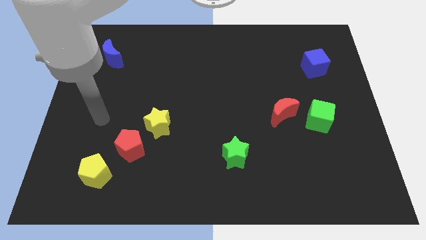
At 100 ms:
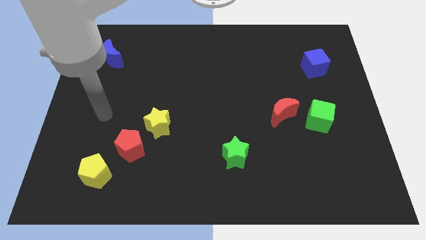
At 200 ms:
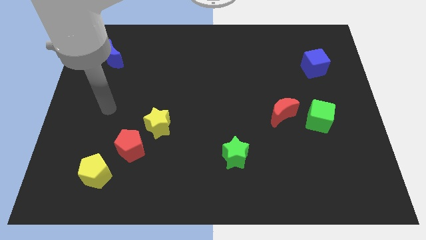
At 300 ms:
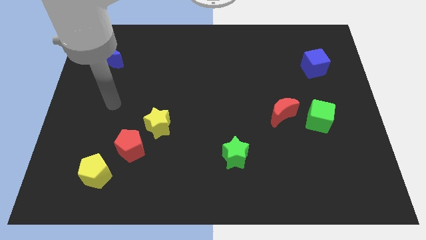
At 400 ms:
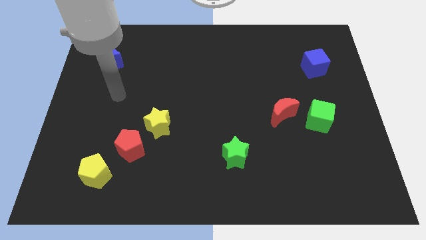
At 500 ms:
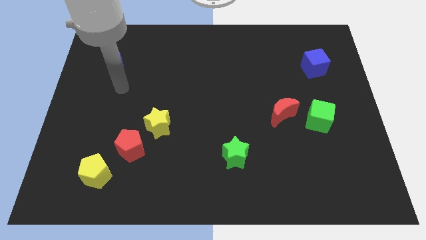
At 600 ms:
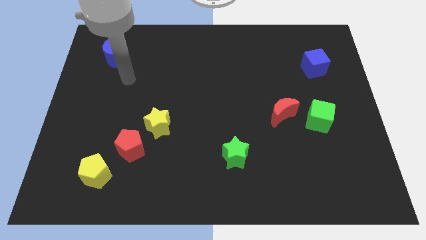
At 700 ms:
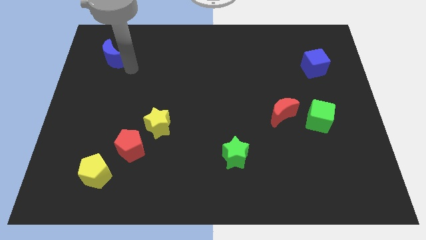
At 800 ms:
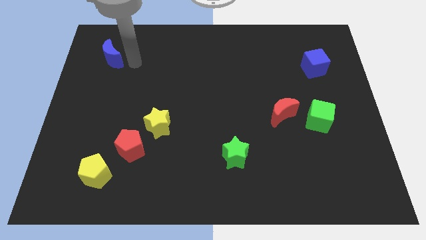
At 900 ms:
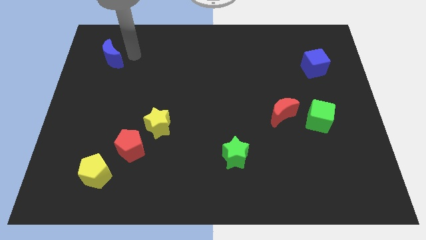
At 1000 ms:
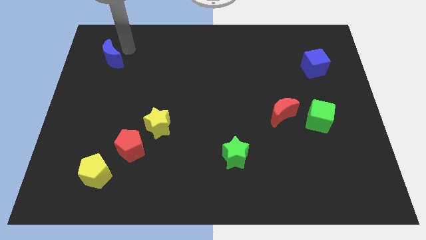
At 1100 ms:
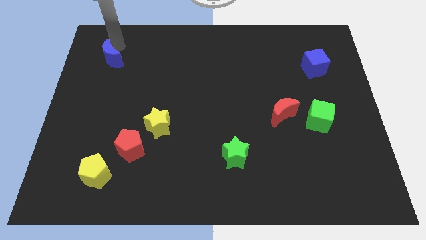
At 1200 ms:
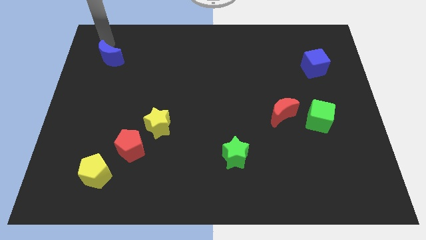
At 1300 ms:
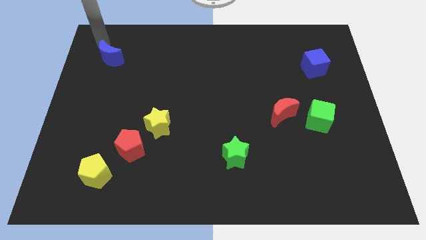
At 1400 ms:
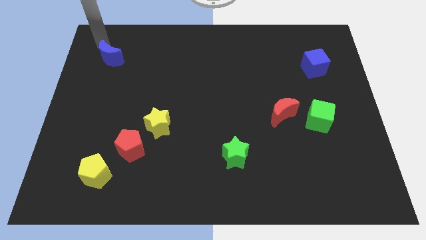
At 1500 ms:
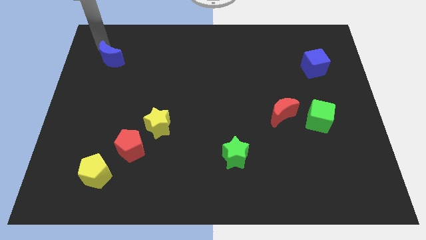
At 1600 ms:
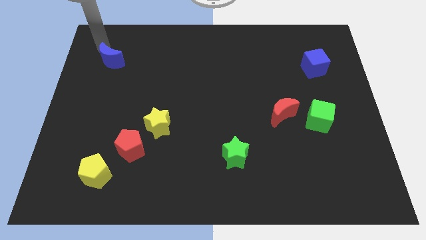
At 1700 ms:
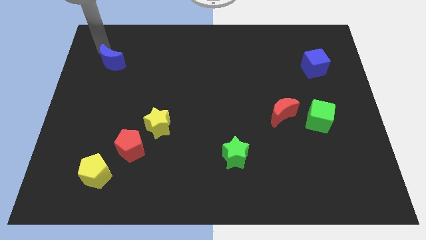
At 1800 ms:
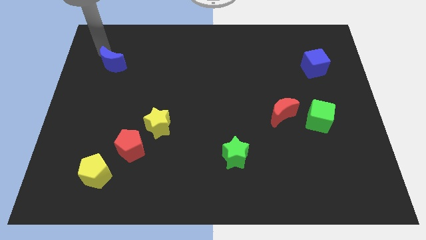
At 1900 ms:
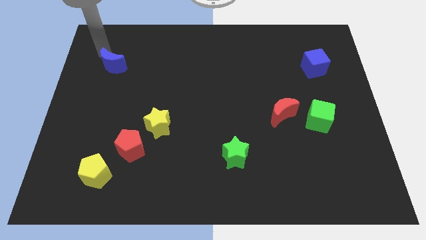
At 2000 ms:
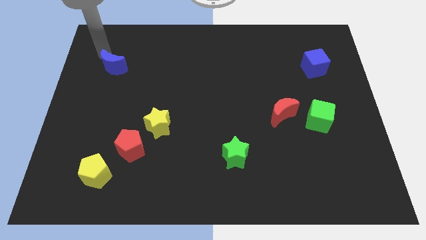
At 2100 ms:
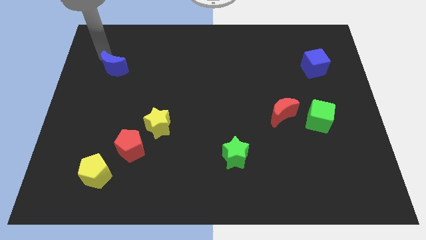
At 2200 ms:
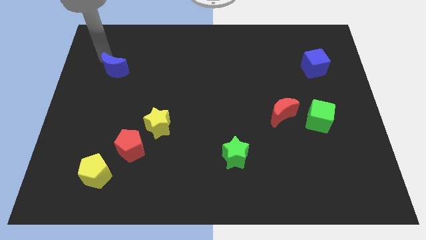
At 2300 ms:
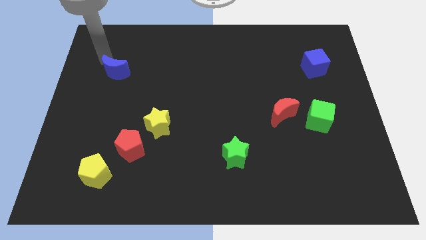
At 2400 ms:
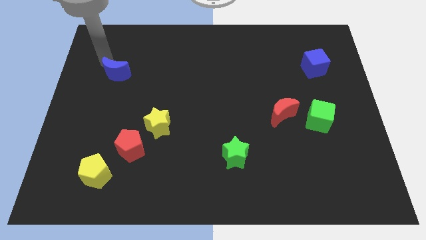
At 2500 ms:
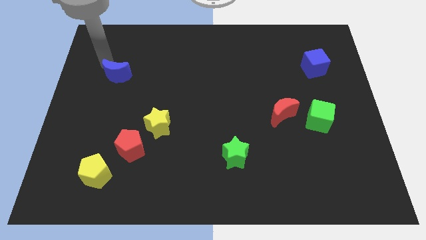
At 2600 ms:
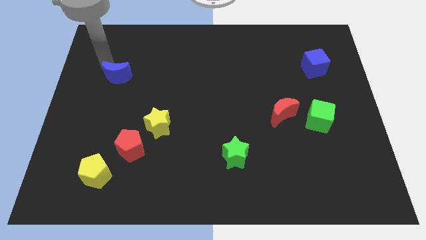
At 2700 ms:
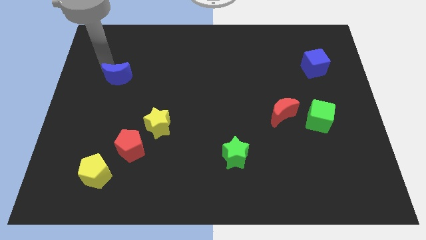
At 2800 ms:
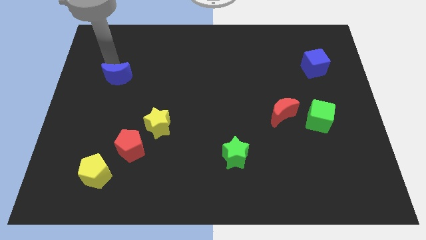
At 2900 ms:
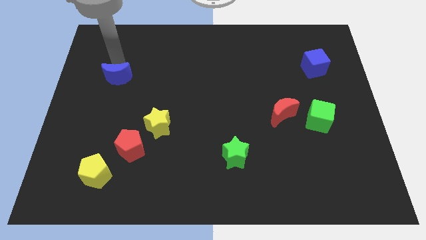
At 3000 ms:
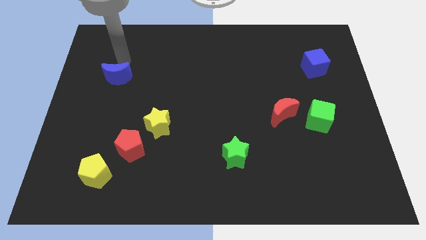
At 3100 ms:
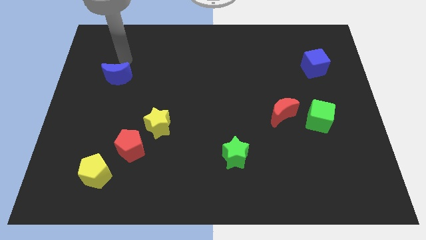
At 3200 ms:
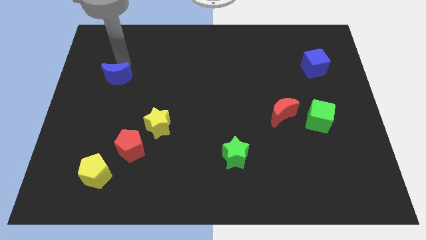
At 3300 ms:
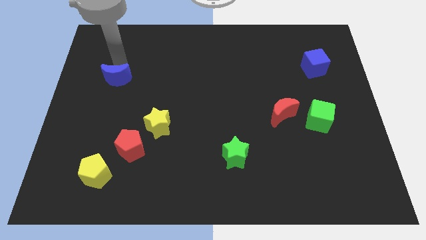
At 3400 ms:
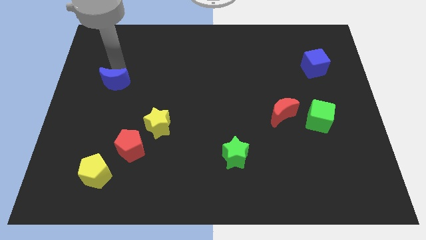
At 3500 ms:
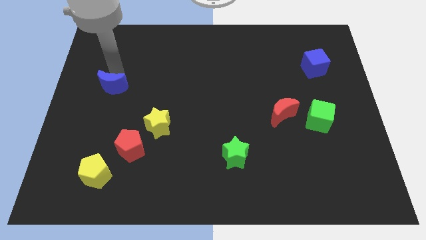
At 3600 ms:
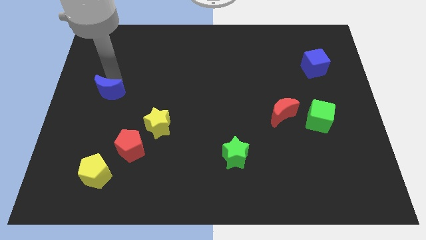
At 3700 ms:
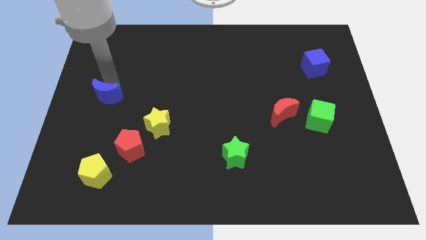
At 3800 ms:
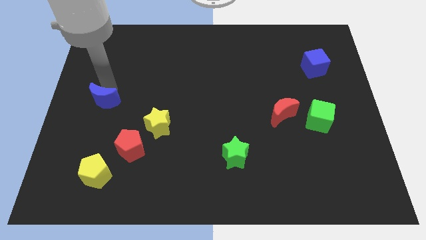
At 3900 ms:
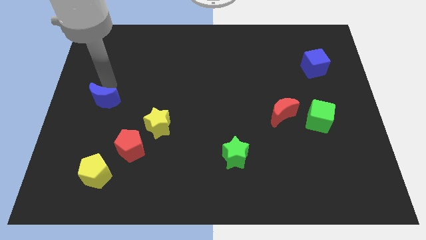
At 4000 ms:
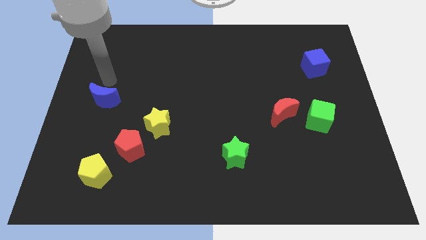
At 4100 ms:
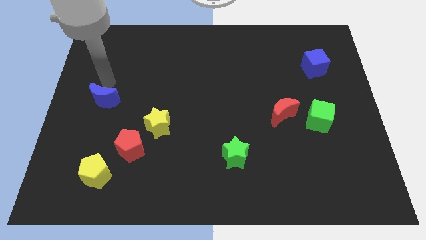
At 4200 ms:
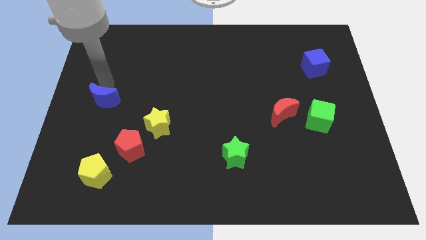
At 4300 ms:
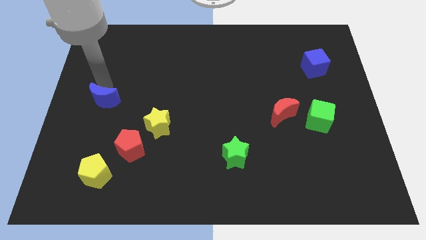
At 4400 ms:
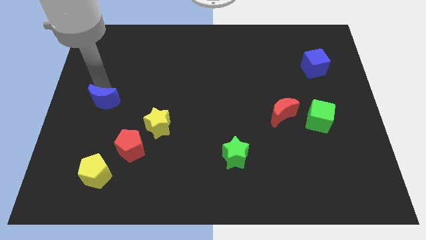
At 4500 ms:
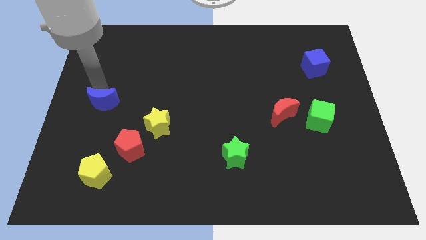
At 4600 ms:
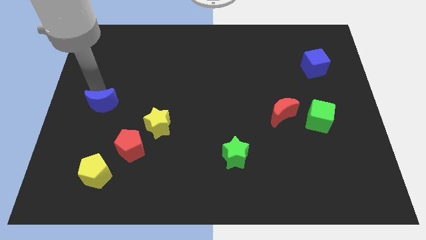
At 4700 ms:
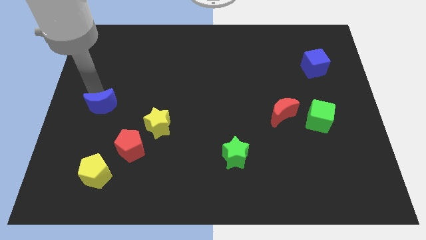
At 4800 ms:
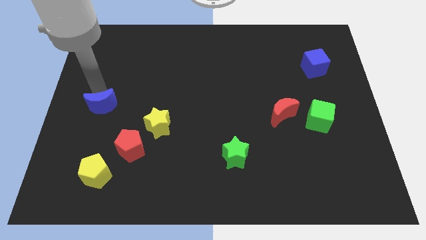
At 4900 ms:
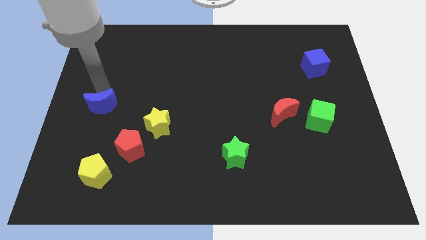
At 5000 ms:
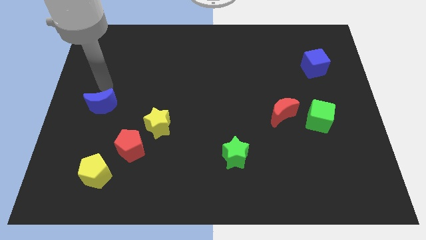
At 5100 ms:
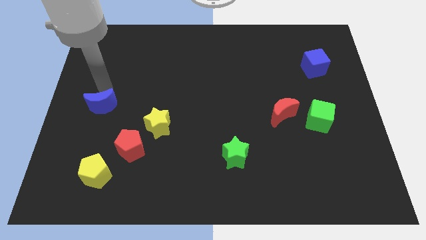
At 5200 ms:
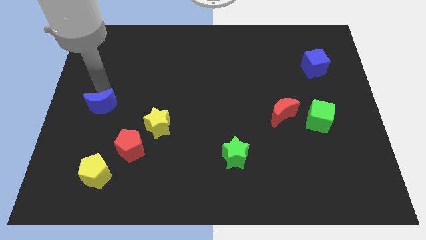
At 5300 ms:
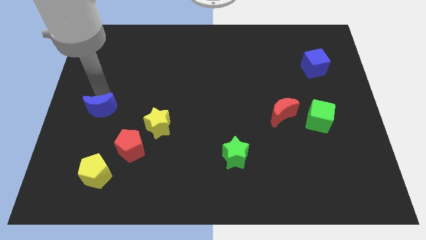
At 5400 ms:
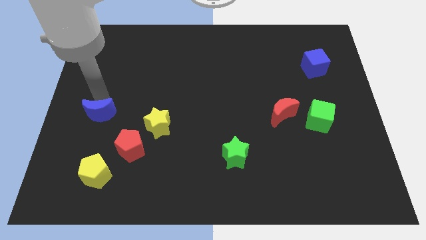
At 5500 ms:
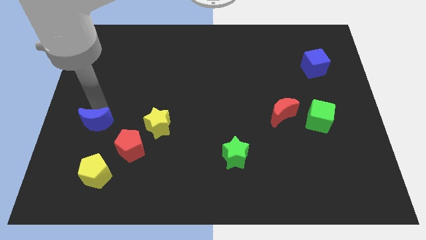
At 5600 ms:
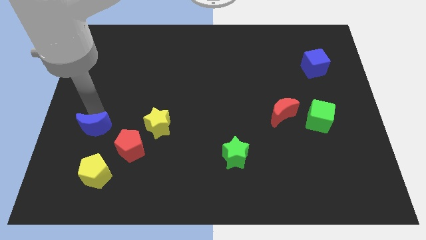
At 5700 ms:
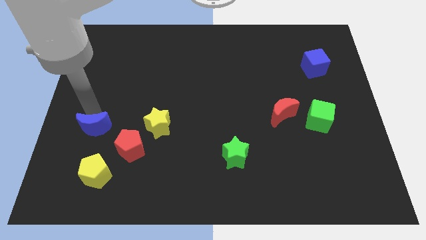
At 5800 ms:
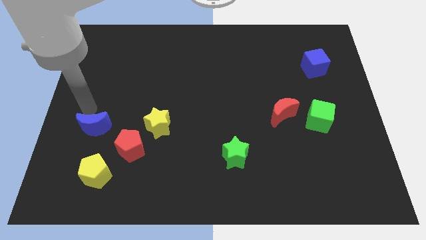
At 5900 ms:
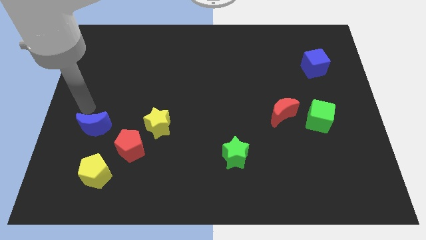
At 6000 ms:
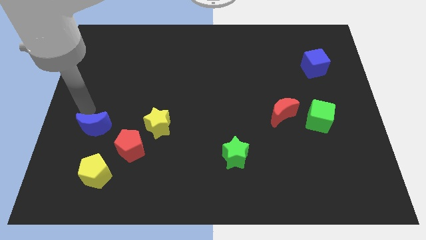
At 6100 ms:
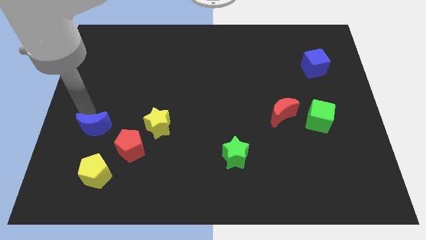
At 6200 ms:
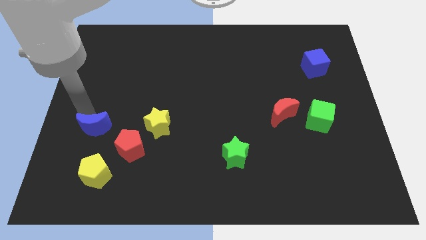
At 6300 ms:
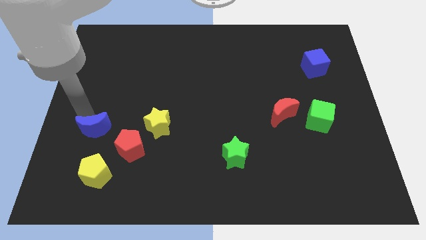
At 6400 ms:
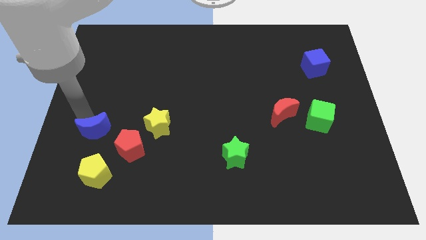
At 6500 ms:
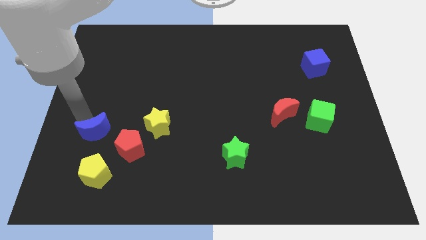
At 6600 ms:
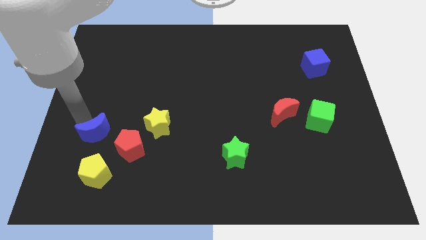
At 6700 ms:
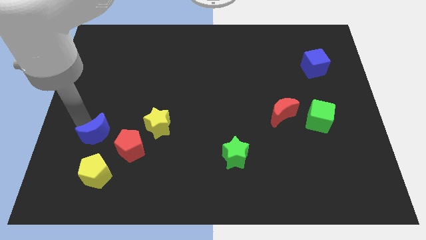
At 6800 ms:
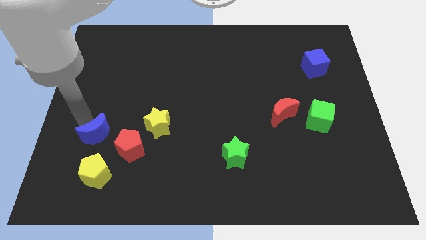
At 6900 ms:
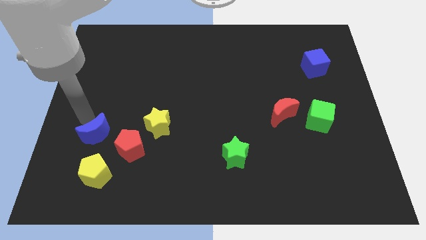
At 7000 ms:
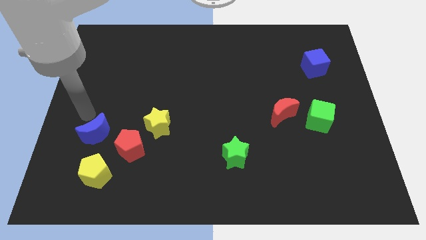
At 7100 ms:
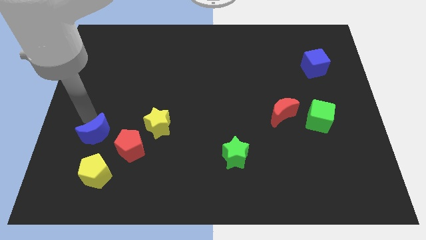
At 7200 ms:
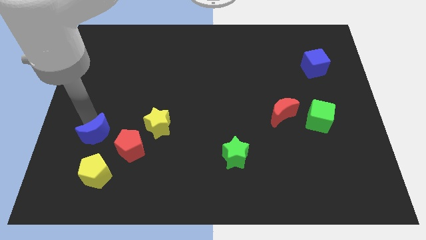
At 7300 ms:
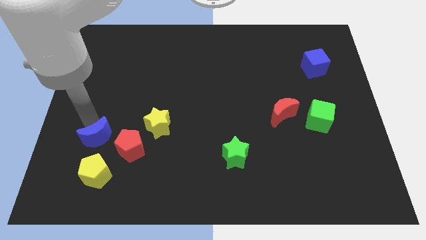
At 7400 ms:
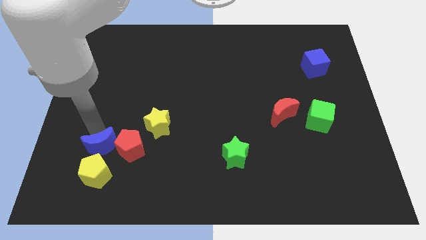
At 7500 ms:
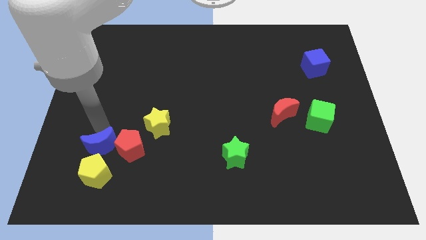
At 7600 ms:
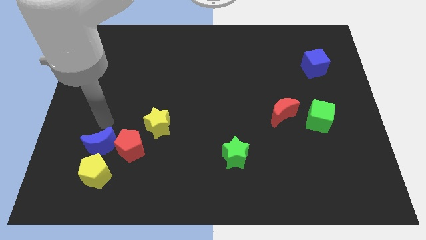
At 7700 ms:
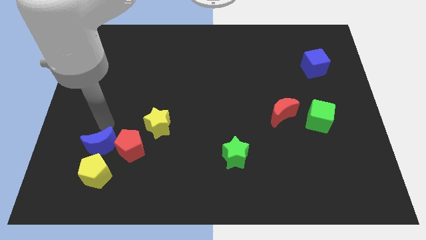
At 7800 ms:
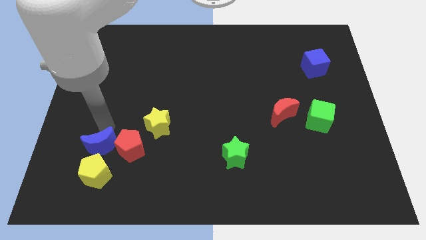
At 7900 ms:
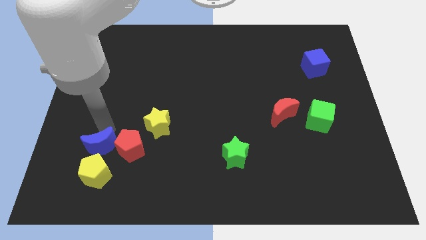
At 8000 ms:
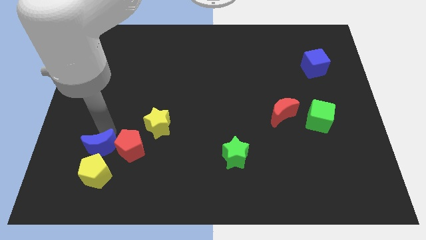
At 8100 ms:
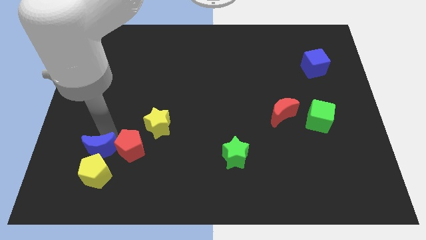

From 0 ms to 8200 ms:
put the blue moon next to the yellow pentagon
